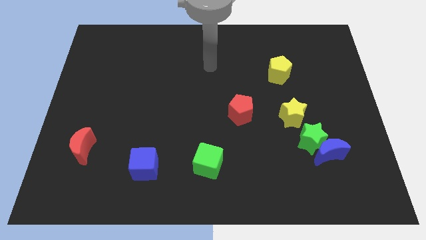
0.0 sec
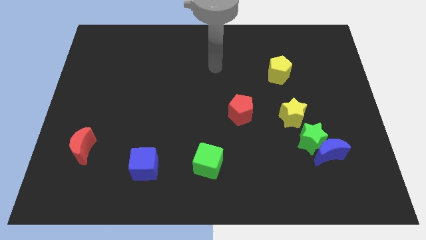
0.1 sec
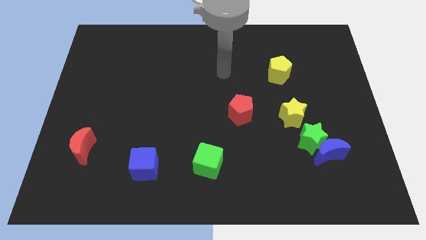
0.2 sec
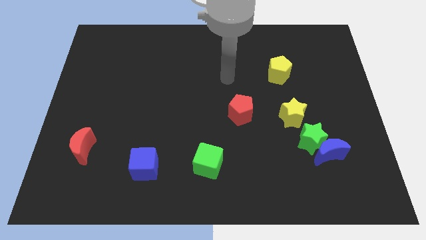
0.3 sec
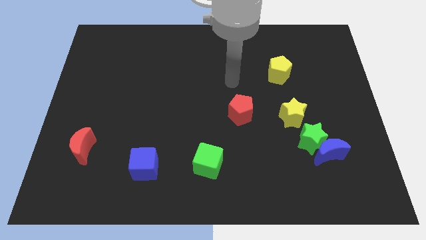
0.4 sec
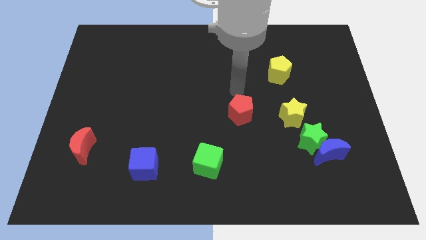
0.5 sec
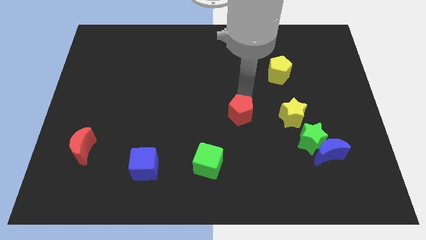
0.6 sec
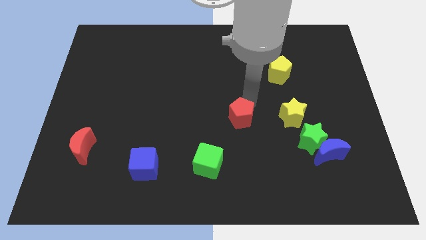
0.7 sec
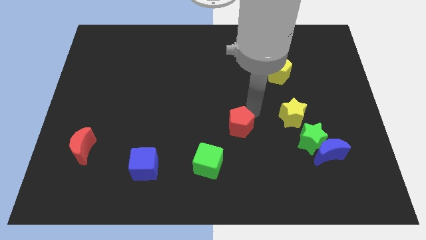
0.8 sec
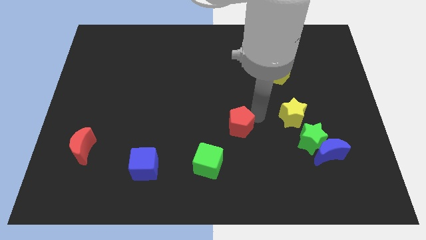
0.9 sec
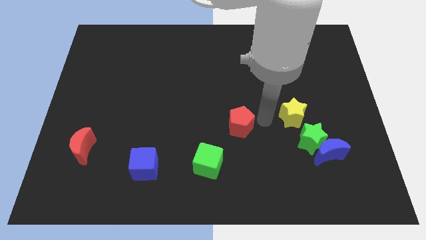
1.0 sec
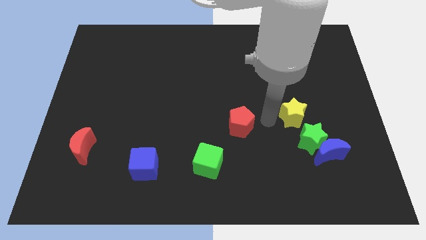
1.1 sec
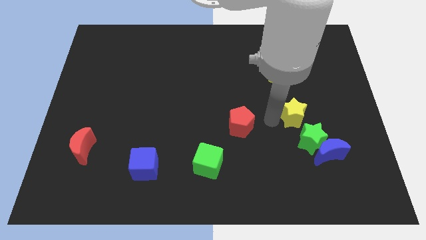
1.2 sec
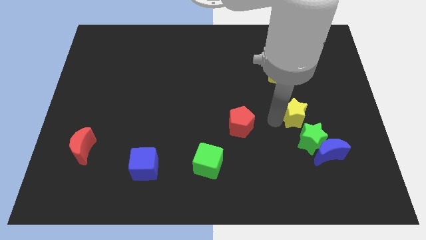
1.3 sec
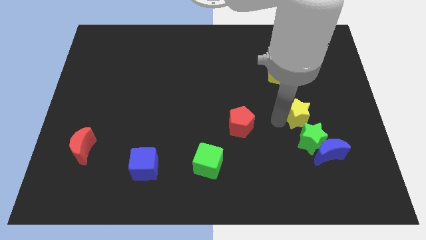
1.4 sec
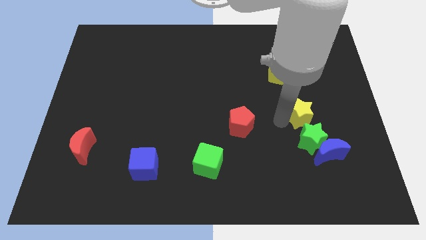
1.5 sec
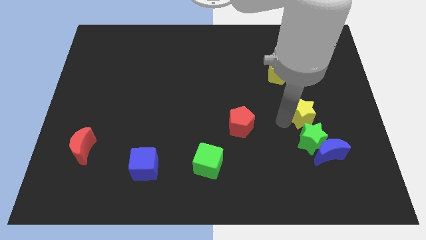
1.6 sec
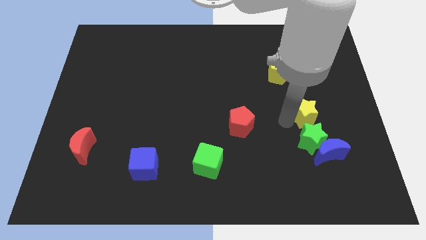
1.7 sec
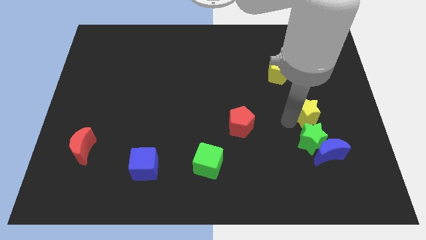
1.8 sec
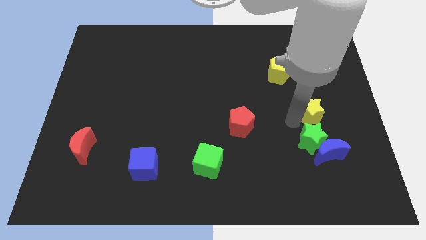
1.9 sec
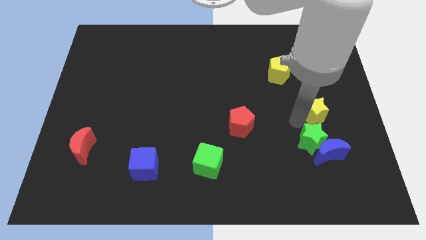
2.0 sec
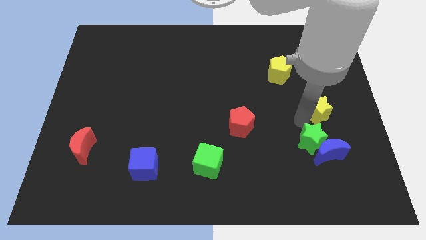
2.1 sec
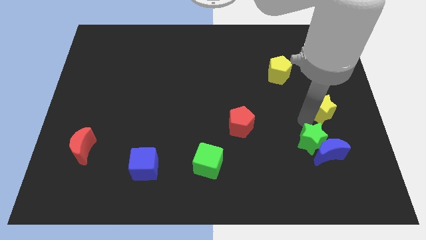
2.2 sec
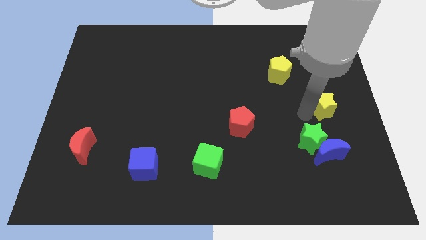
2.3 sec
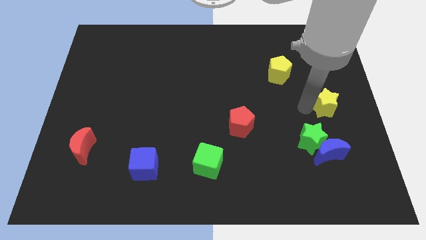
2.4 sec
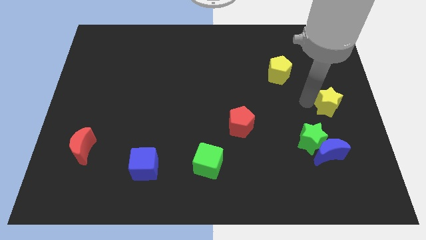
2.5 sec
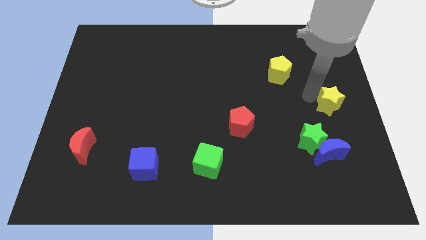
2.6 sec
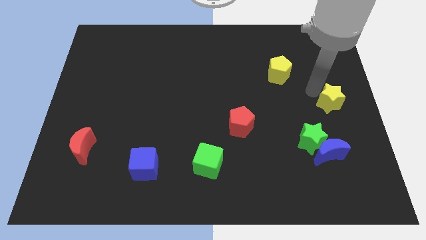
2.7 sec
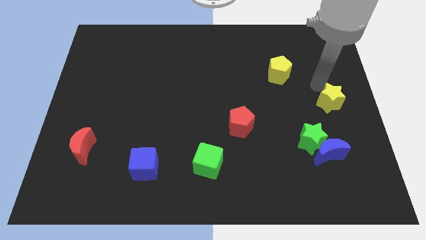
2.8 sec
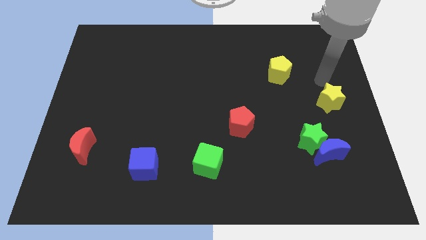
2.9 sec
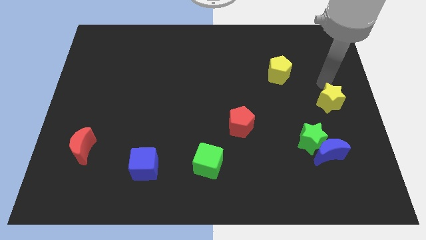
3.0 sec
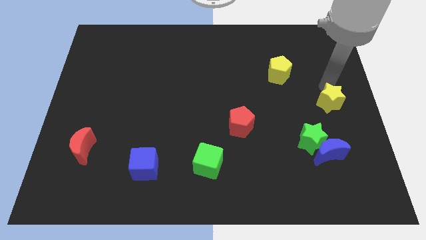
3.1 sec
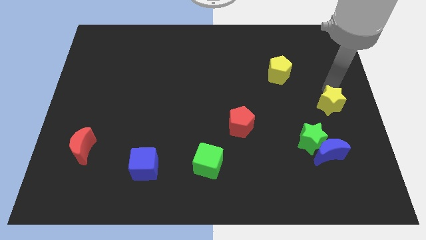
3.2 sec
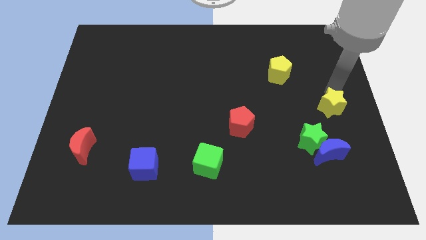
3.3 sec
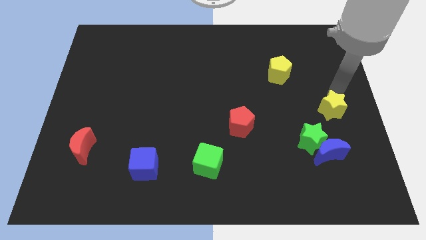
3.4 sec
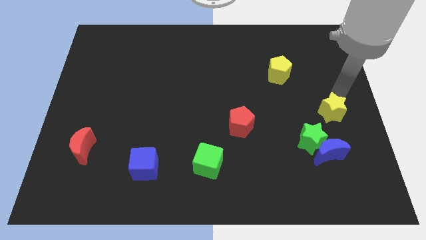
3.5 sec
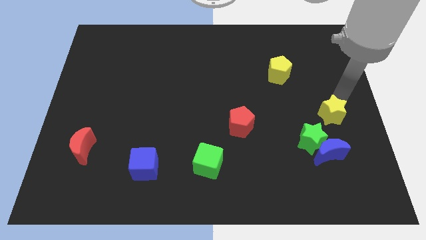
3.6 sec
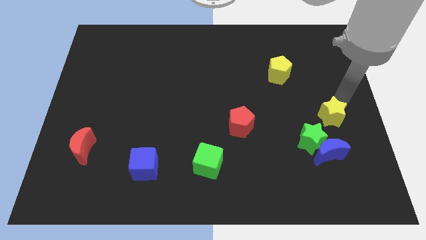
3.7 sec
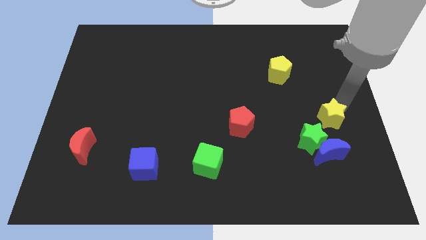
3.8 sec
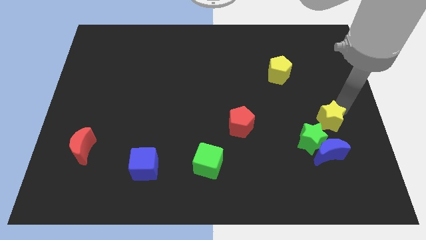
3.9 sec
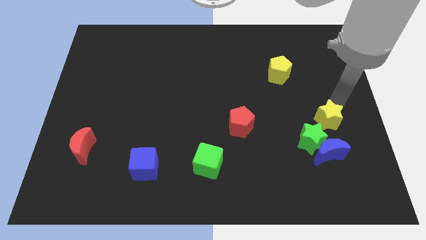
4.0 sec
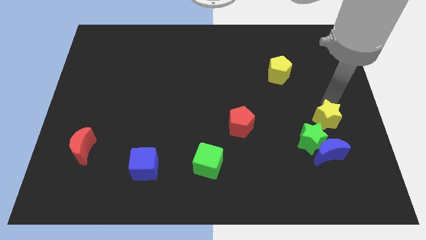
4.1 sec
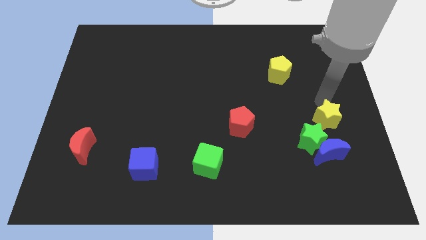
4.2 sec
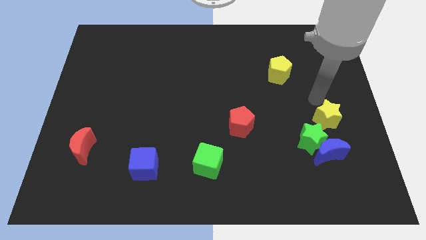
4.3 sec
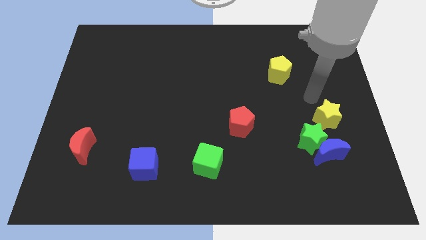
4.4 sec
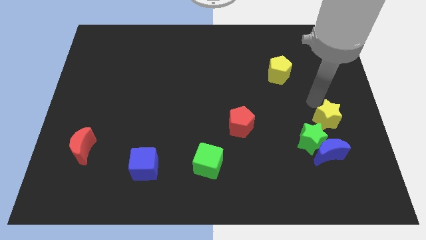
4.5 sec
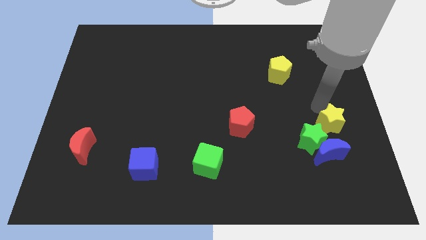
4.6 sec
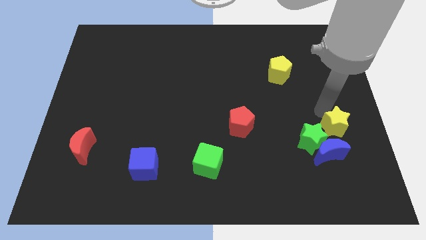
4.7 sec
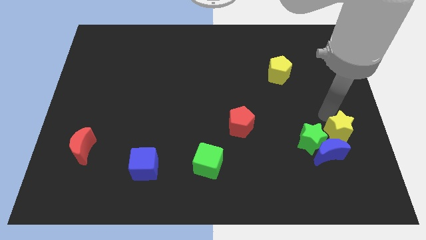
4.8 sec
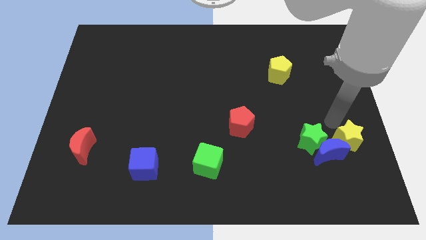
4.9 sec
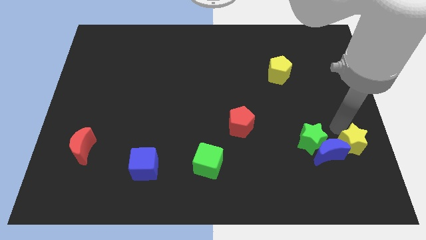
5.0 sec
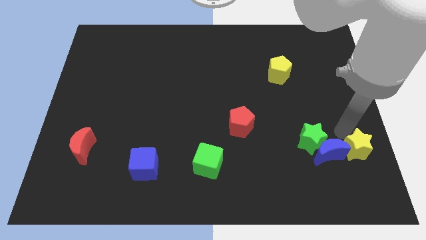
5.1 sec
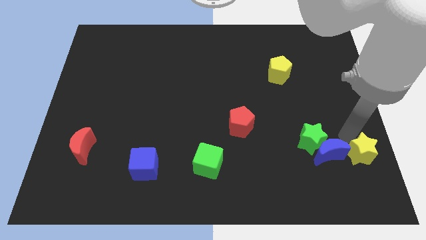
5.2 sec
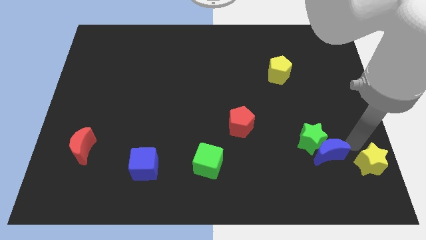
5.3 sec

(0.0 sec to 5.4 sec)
slide the yellow star to the lower right corner
